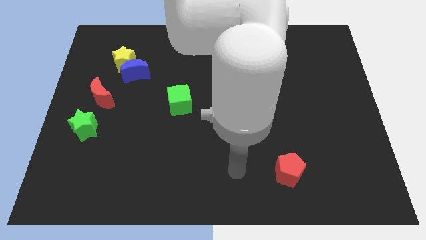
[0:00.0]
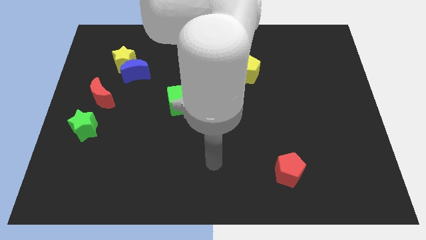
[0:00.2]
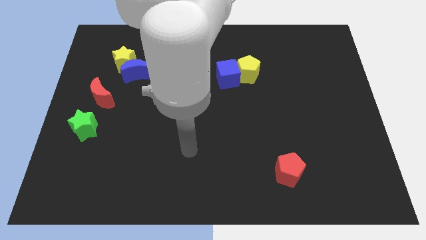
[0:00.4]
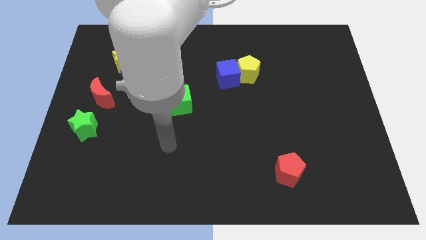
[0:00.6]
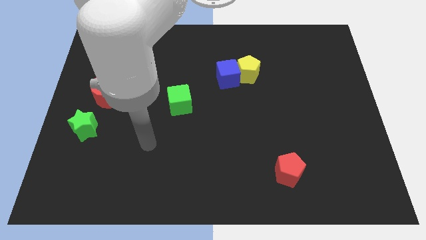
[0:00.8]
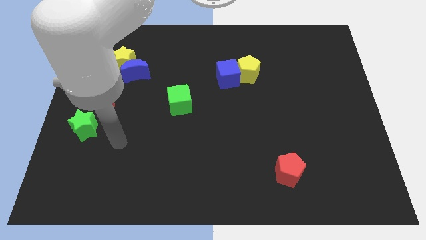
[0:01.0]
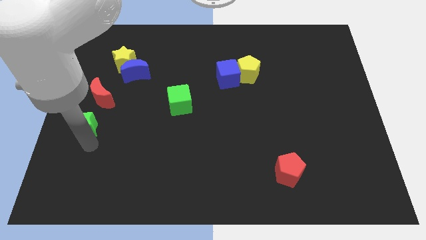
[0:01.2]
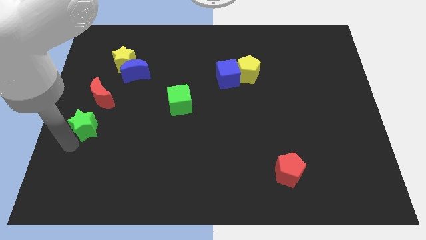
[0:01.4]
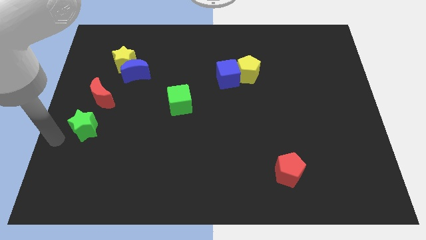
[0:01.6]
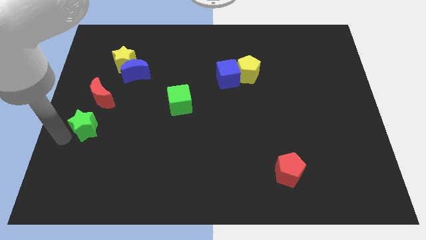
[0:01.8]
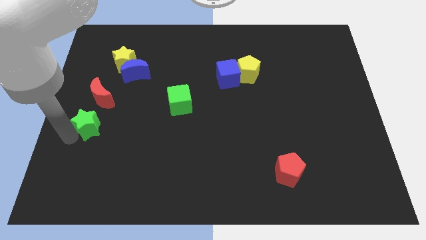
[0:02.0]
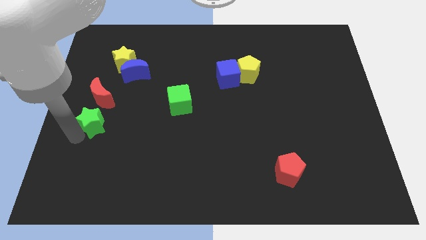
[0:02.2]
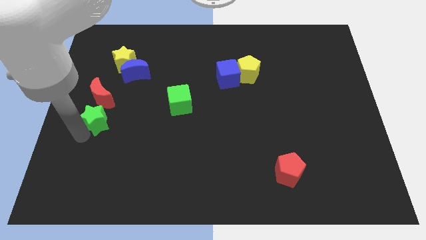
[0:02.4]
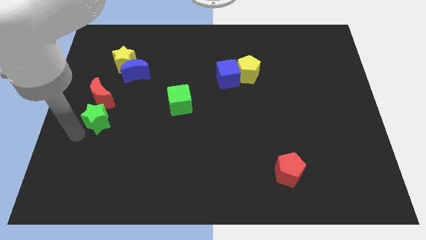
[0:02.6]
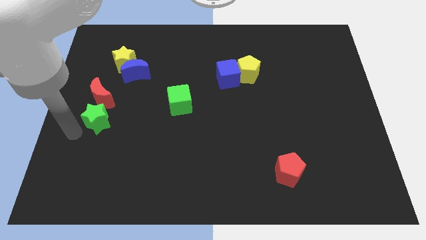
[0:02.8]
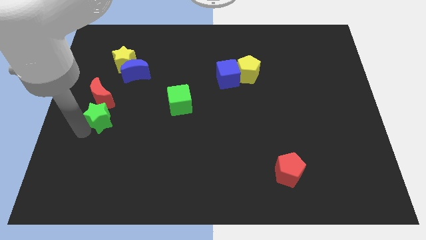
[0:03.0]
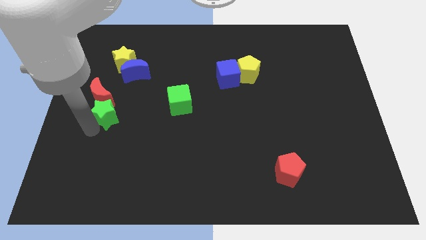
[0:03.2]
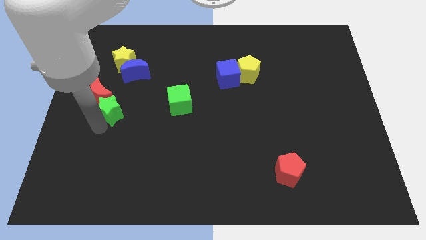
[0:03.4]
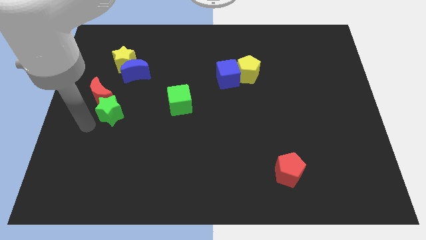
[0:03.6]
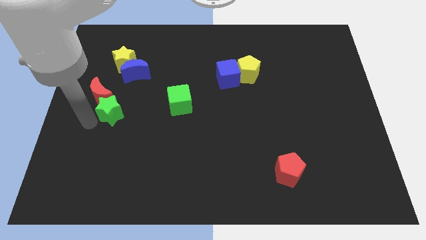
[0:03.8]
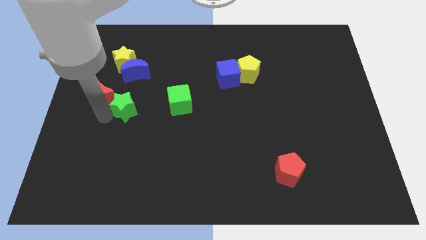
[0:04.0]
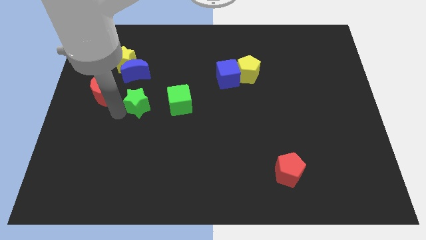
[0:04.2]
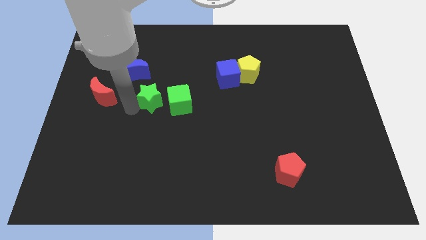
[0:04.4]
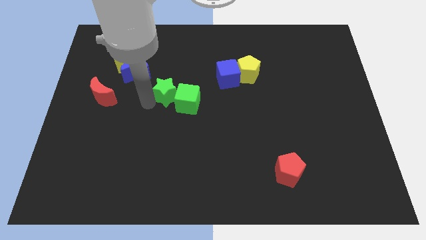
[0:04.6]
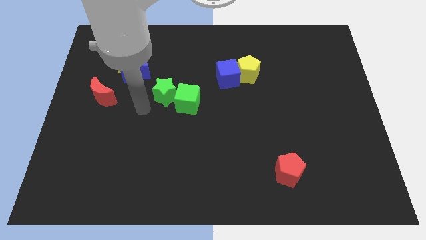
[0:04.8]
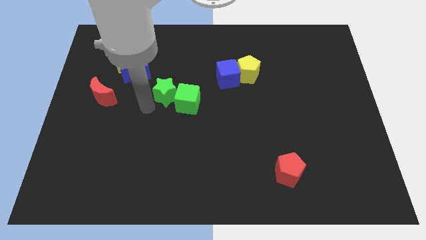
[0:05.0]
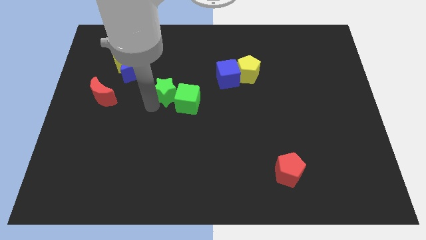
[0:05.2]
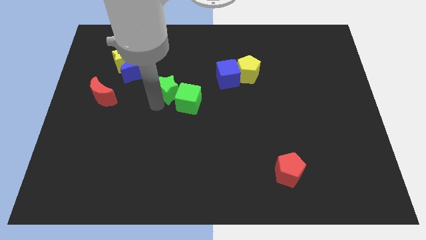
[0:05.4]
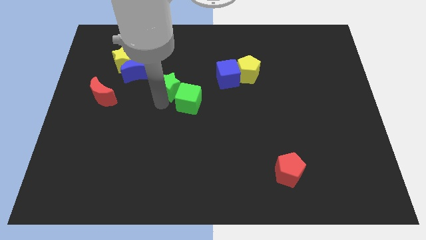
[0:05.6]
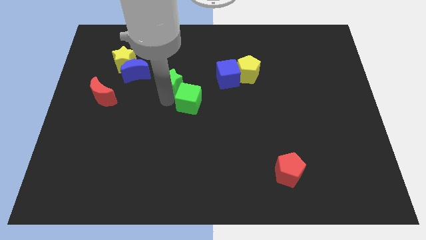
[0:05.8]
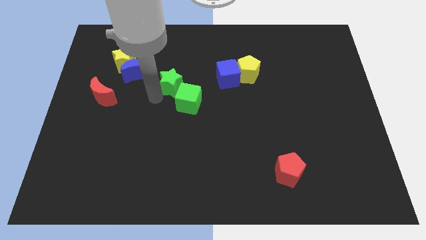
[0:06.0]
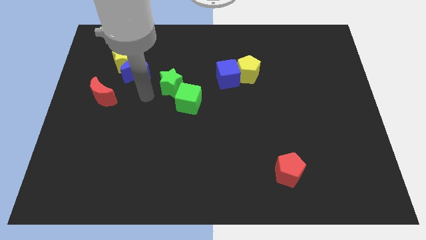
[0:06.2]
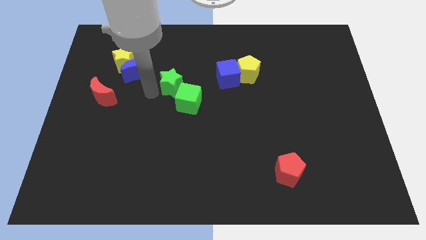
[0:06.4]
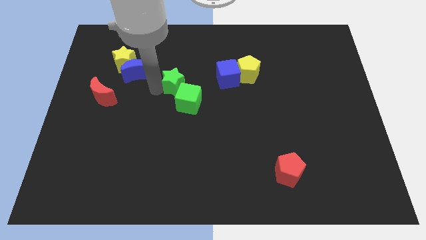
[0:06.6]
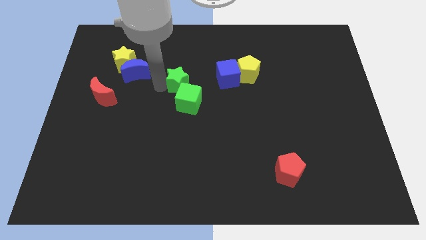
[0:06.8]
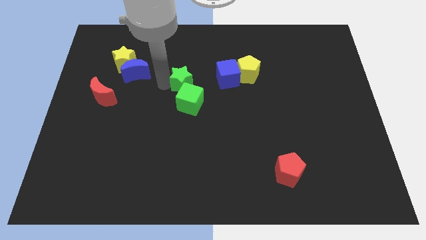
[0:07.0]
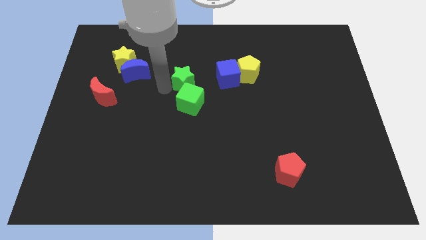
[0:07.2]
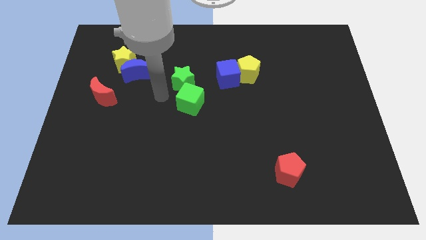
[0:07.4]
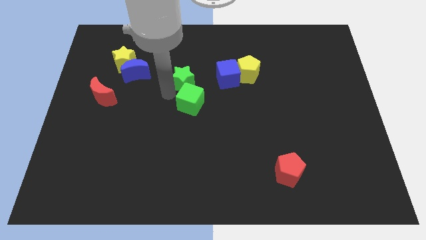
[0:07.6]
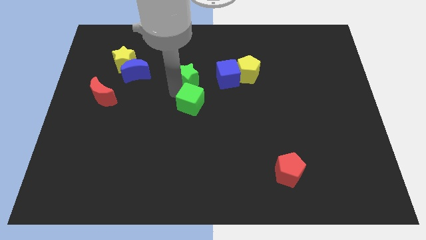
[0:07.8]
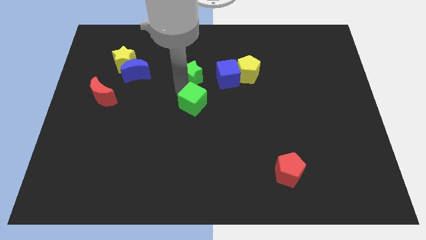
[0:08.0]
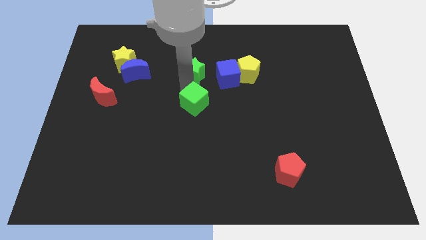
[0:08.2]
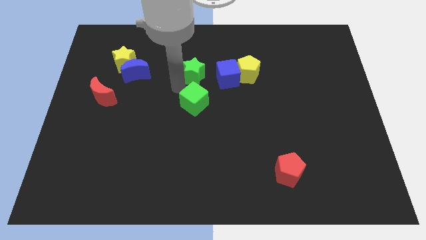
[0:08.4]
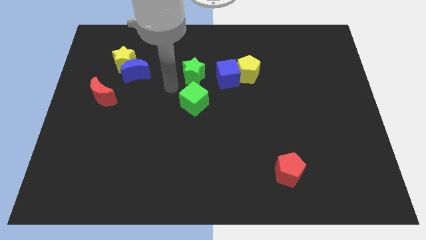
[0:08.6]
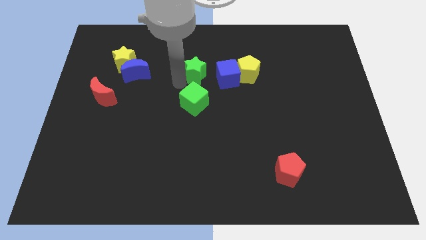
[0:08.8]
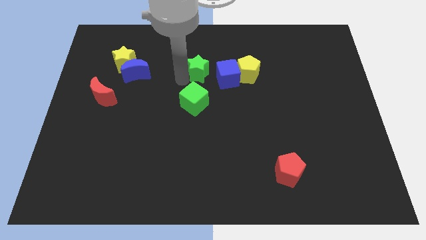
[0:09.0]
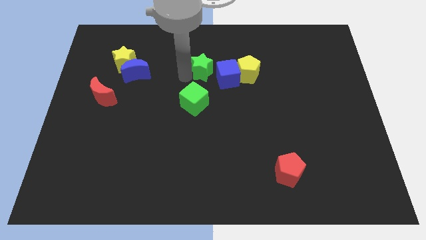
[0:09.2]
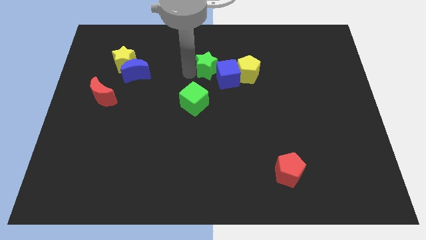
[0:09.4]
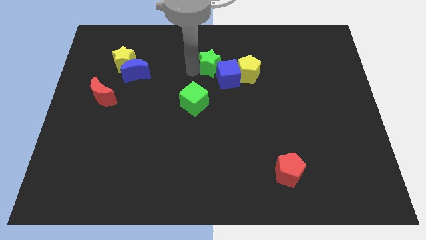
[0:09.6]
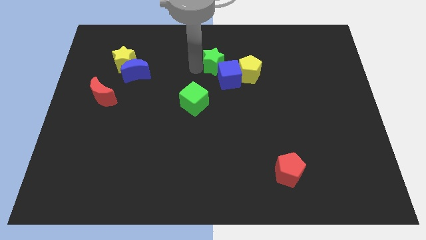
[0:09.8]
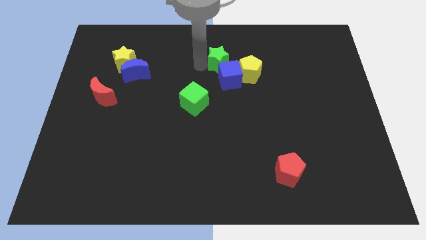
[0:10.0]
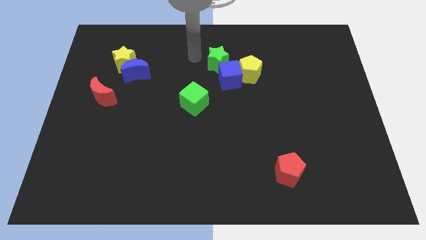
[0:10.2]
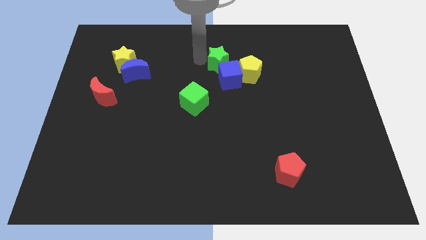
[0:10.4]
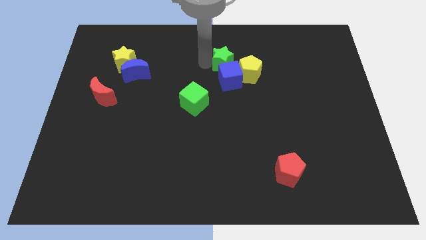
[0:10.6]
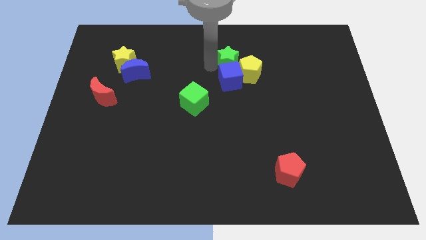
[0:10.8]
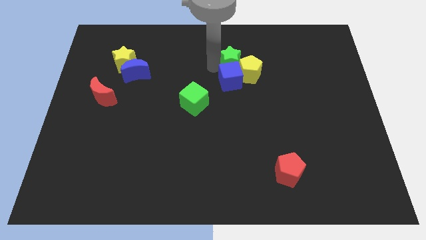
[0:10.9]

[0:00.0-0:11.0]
put the green star next to the yellow pentagon

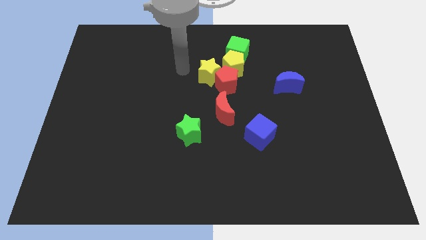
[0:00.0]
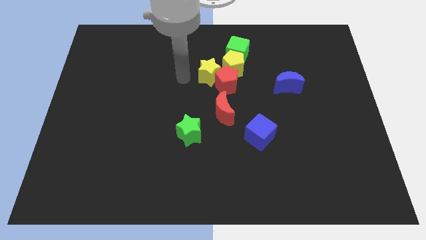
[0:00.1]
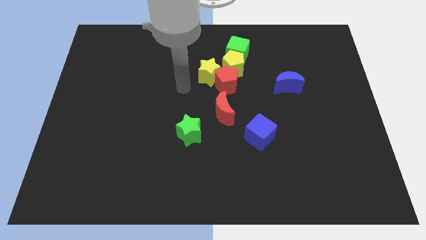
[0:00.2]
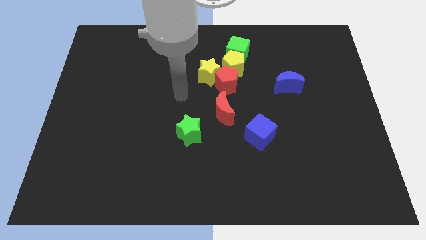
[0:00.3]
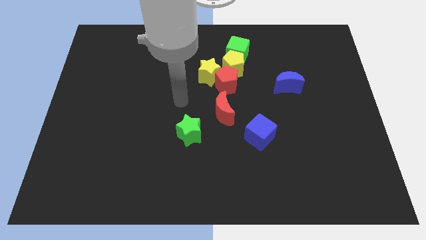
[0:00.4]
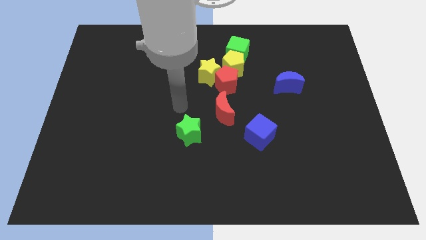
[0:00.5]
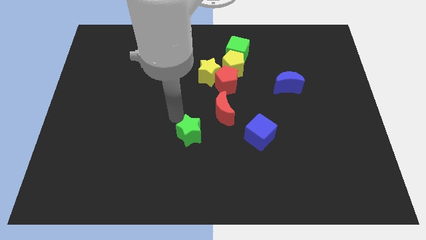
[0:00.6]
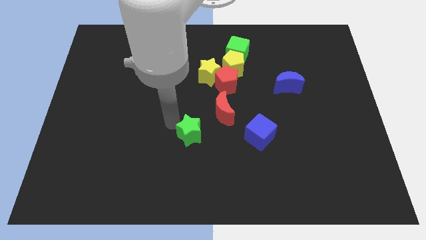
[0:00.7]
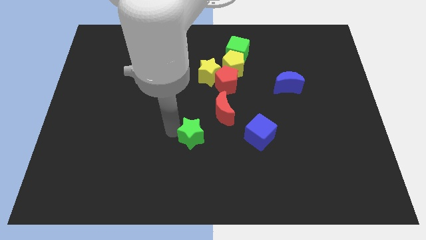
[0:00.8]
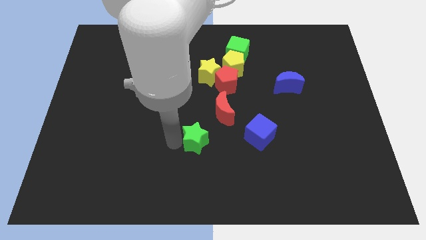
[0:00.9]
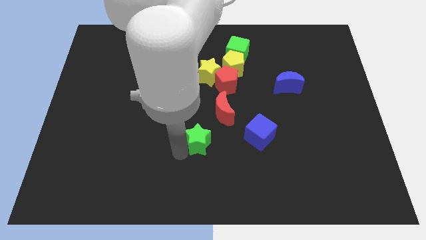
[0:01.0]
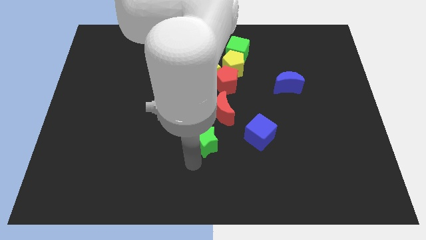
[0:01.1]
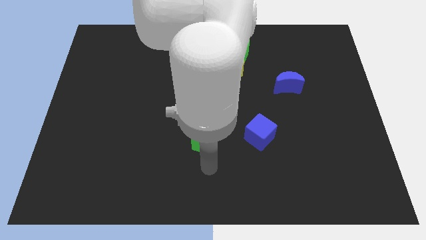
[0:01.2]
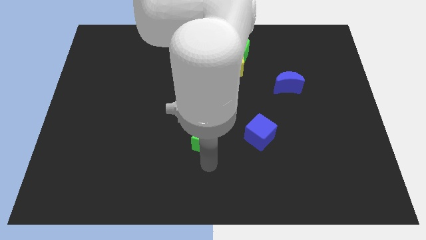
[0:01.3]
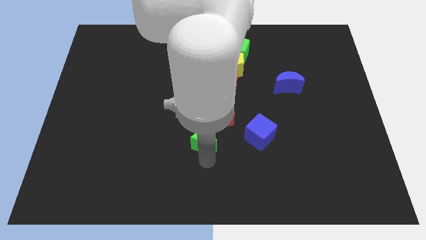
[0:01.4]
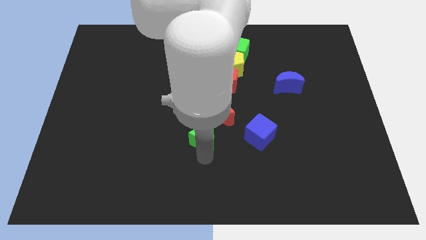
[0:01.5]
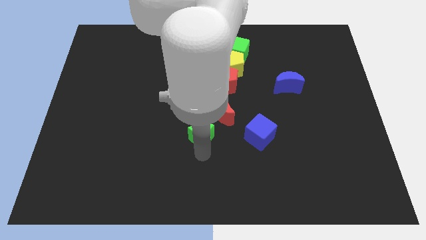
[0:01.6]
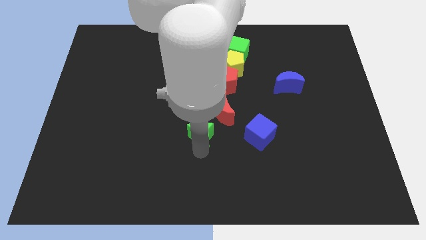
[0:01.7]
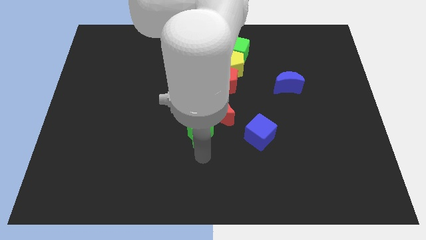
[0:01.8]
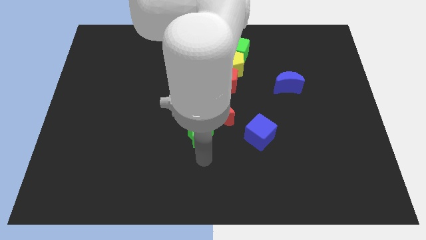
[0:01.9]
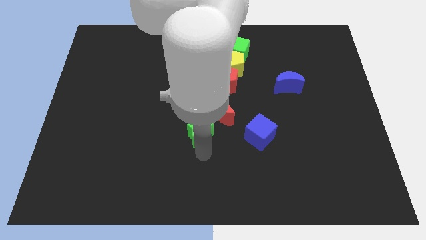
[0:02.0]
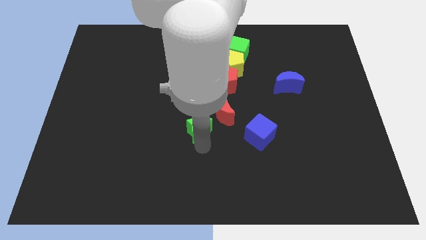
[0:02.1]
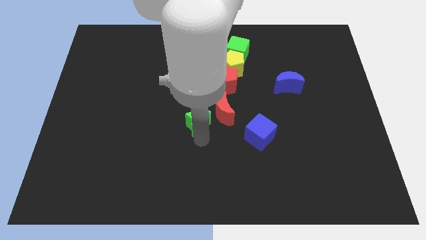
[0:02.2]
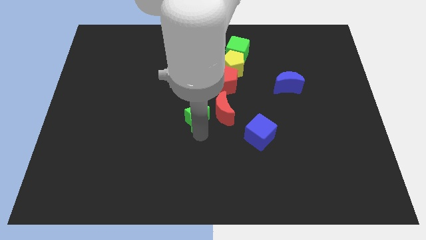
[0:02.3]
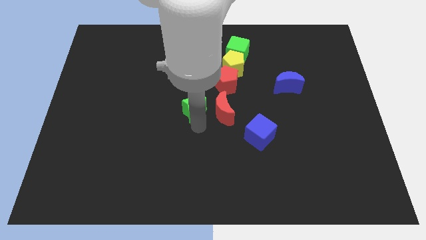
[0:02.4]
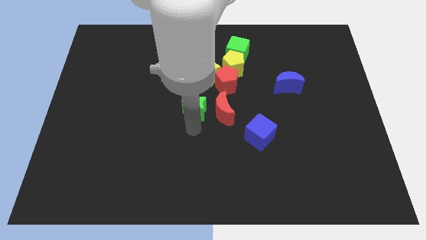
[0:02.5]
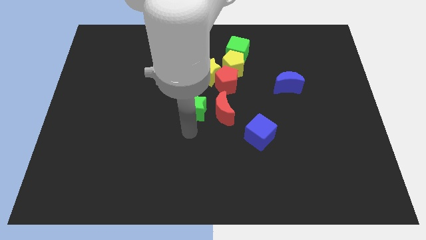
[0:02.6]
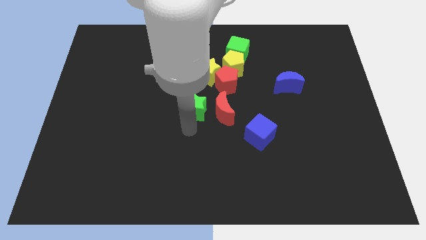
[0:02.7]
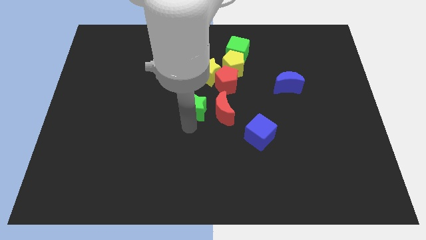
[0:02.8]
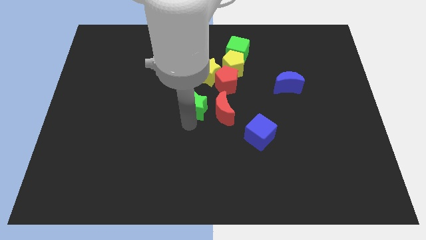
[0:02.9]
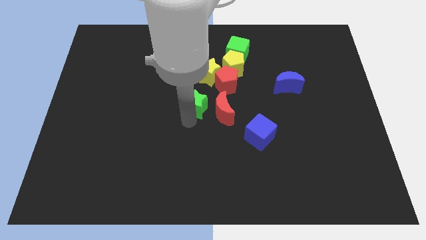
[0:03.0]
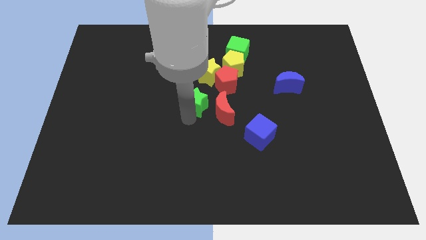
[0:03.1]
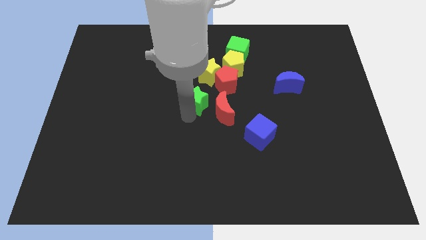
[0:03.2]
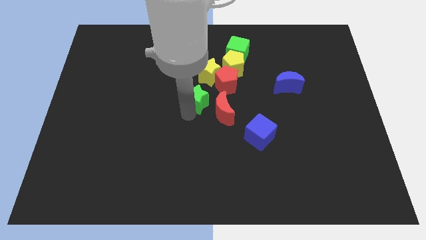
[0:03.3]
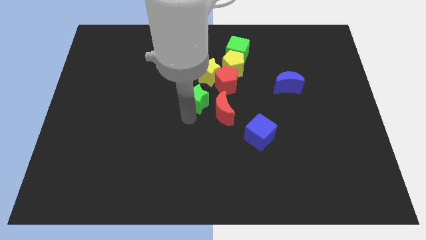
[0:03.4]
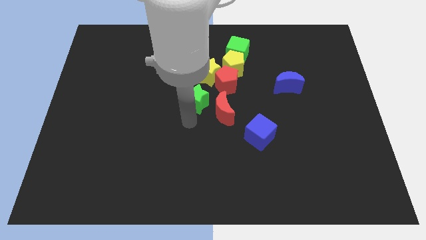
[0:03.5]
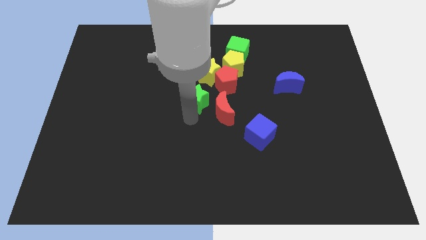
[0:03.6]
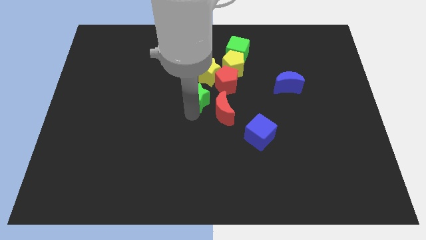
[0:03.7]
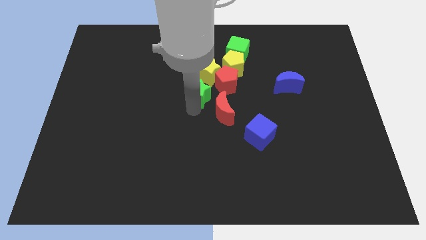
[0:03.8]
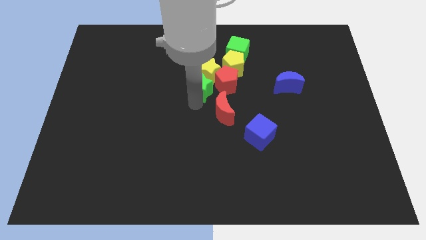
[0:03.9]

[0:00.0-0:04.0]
push the green star next to the yellow star
